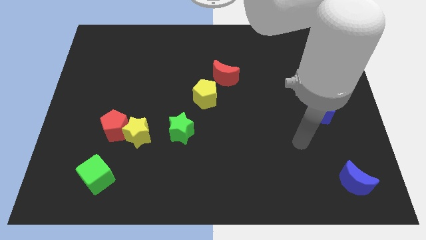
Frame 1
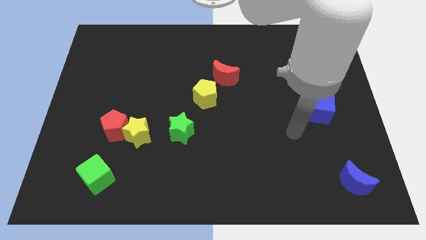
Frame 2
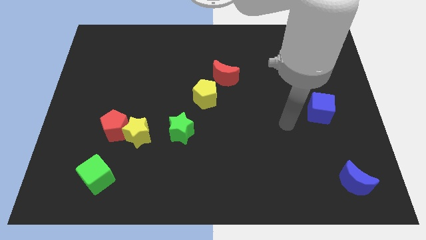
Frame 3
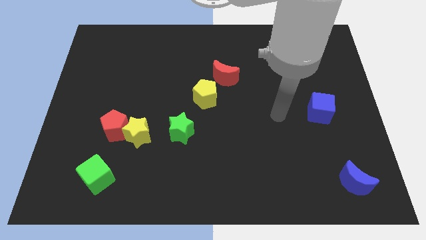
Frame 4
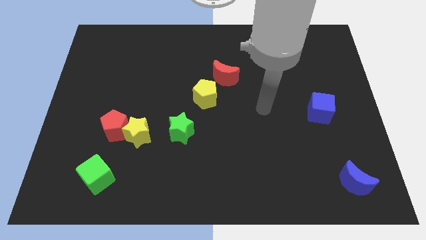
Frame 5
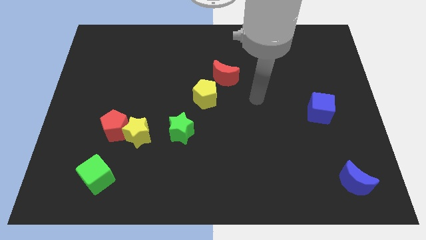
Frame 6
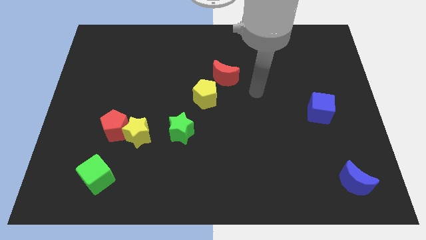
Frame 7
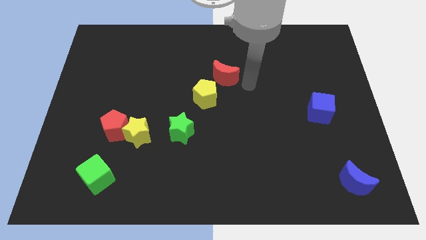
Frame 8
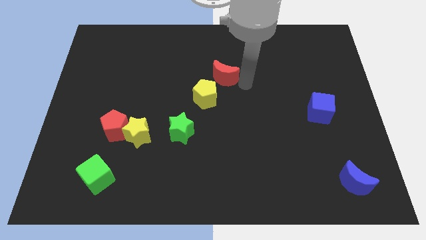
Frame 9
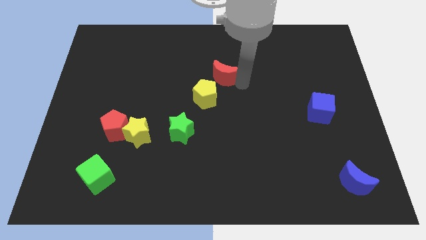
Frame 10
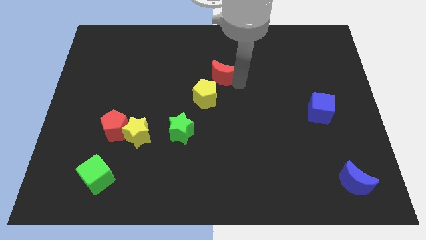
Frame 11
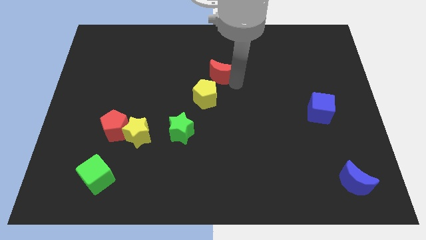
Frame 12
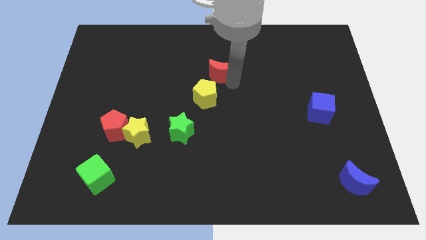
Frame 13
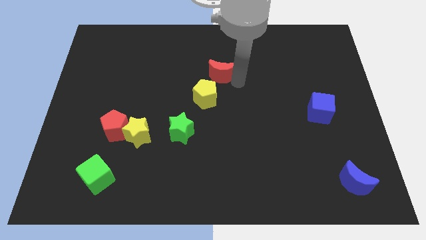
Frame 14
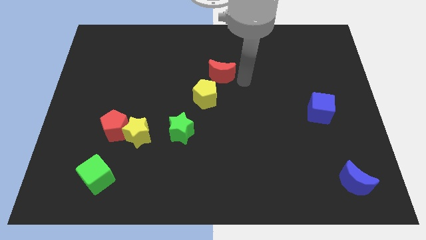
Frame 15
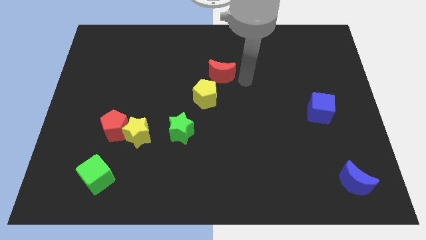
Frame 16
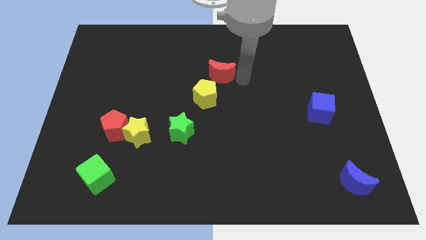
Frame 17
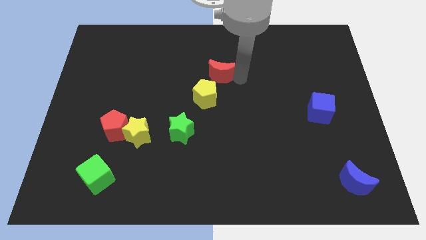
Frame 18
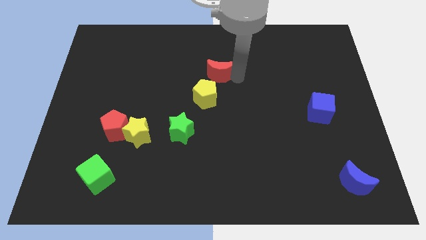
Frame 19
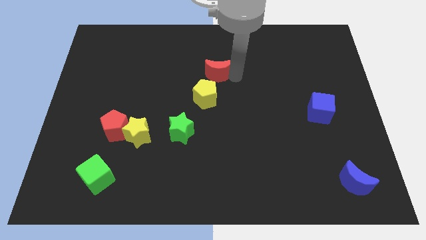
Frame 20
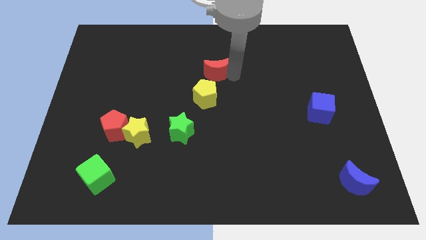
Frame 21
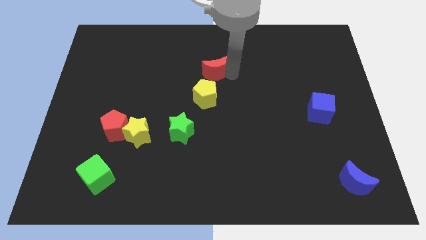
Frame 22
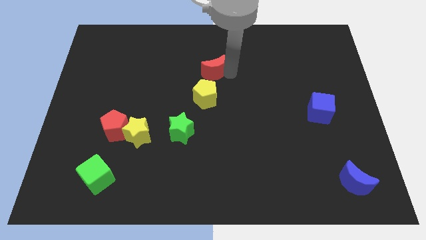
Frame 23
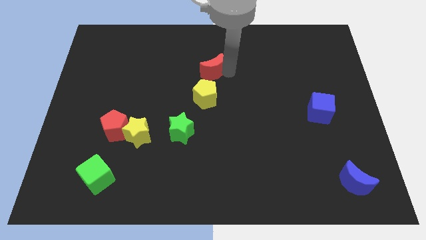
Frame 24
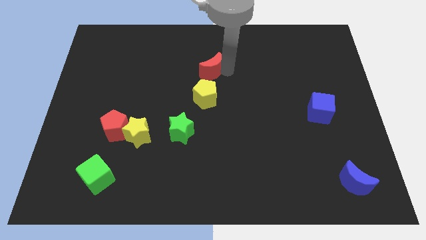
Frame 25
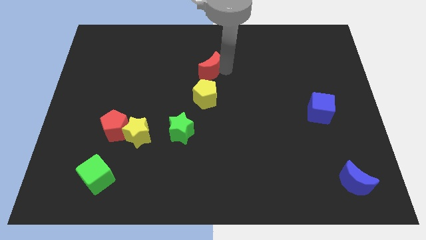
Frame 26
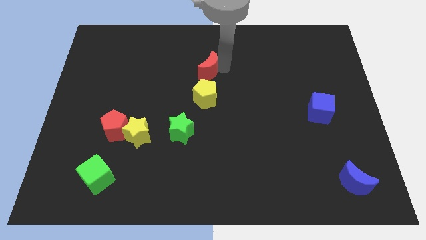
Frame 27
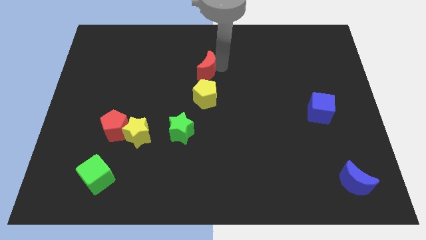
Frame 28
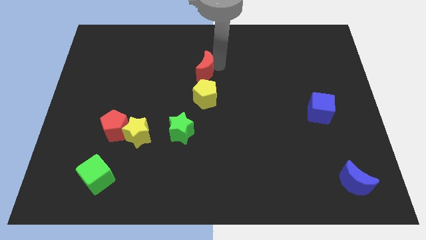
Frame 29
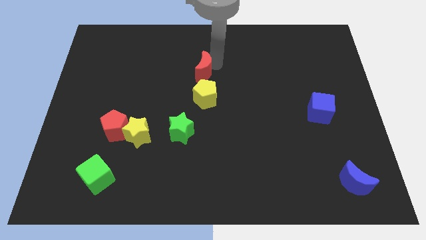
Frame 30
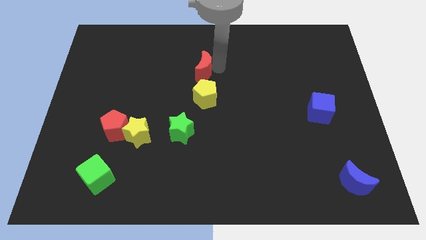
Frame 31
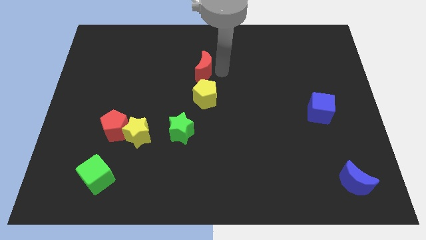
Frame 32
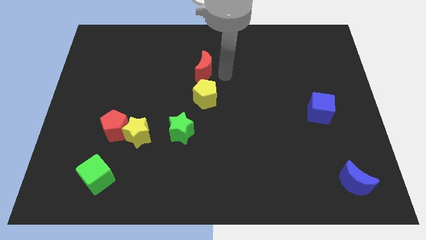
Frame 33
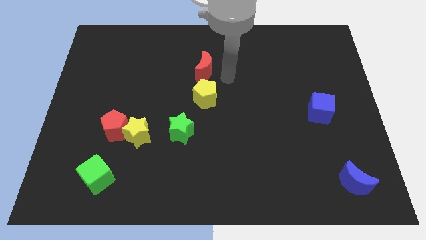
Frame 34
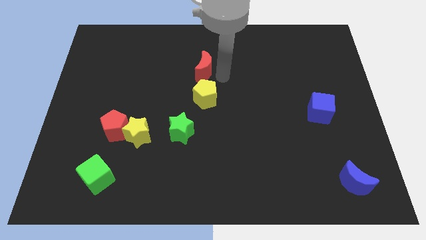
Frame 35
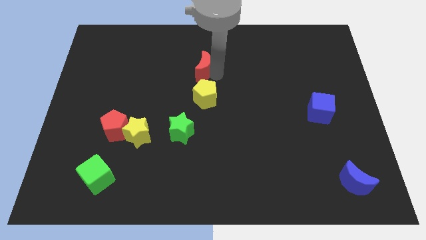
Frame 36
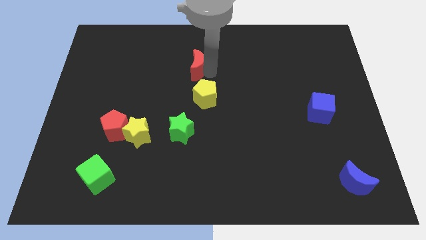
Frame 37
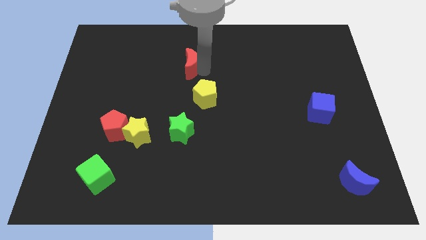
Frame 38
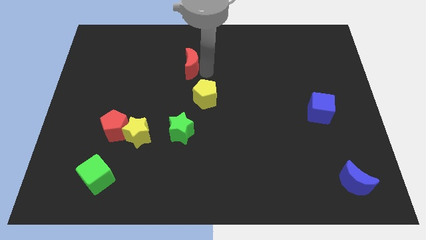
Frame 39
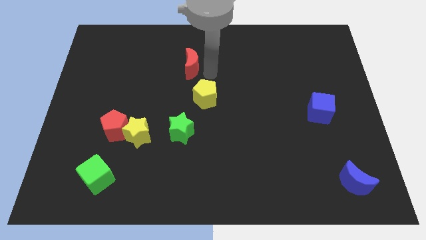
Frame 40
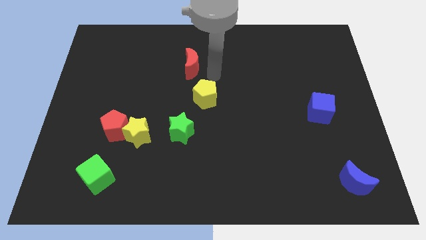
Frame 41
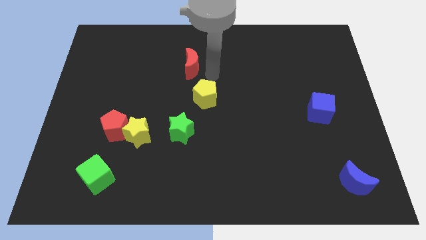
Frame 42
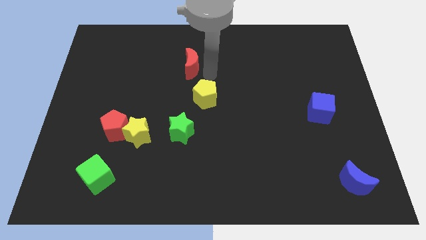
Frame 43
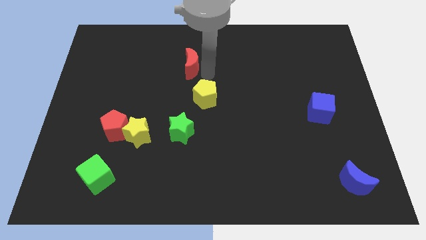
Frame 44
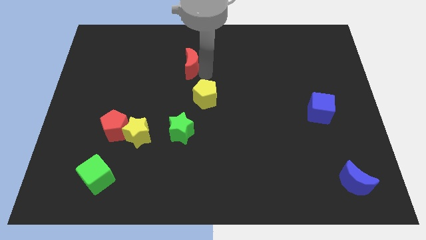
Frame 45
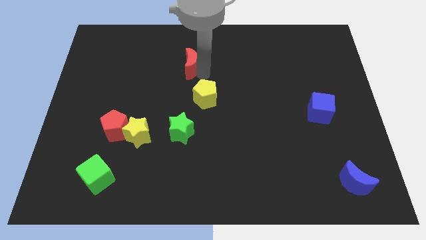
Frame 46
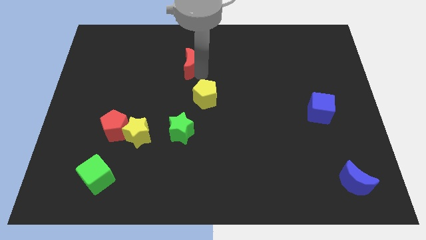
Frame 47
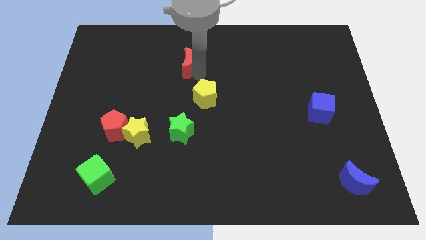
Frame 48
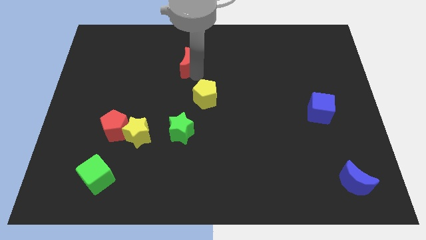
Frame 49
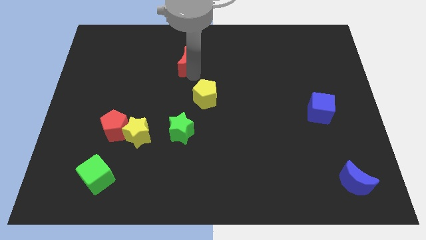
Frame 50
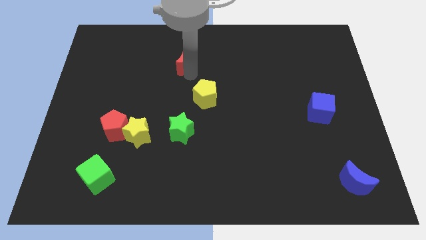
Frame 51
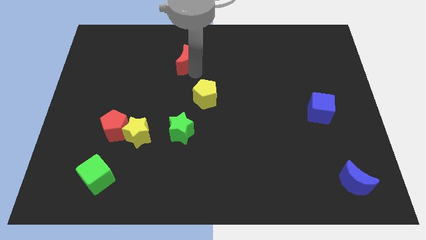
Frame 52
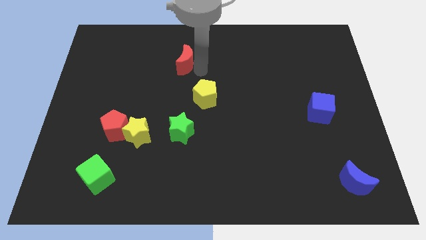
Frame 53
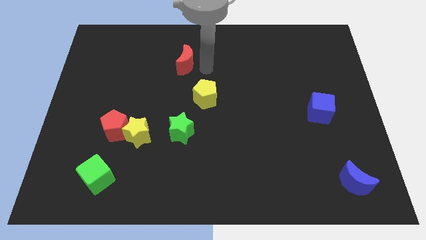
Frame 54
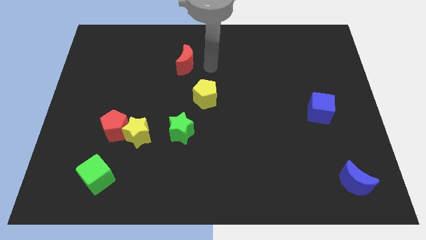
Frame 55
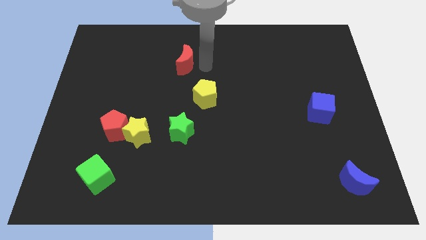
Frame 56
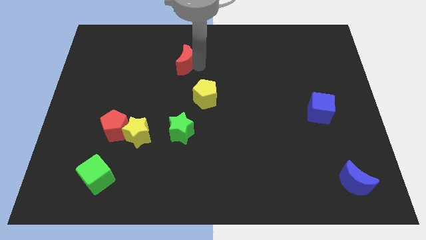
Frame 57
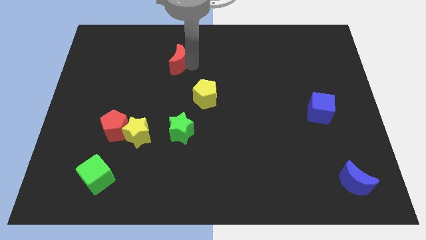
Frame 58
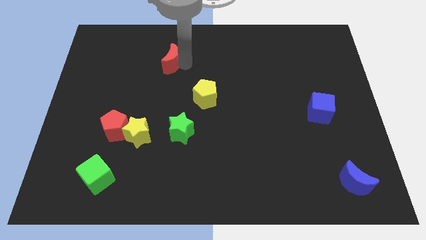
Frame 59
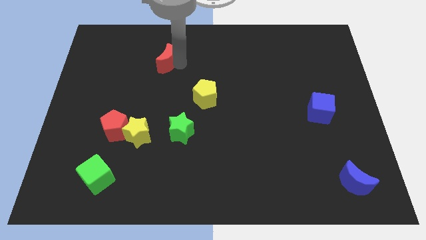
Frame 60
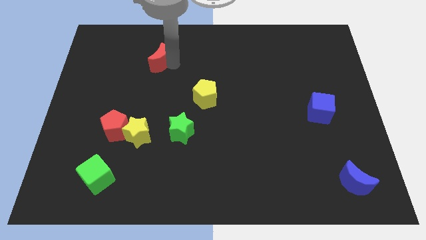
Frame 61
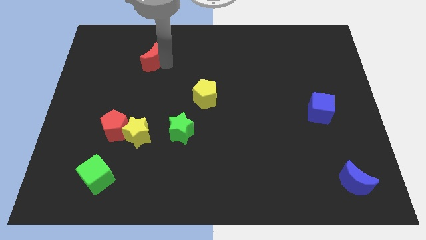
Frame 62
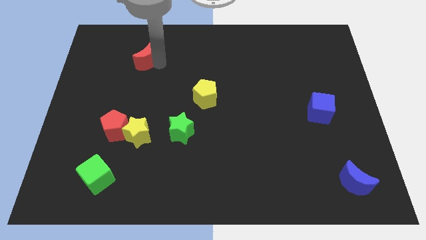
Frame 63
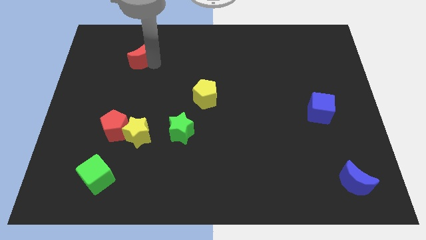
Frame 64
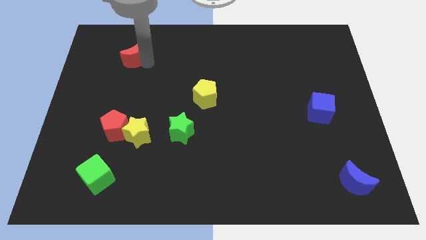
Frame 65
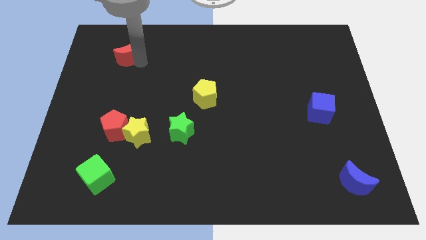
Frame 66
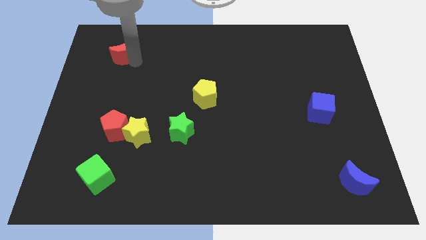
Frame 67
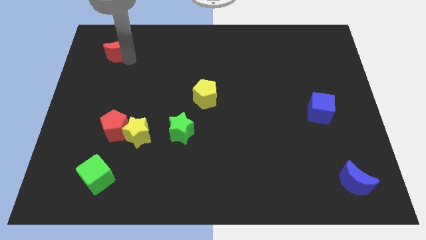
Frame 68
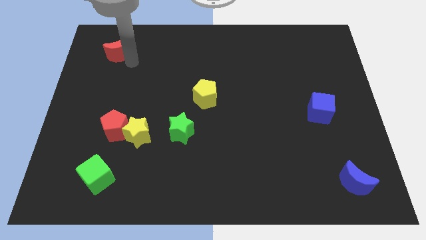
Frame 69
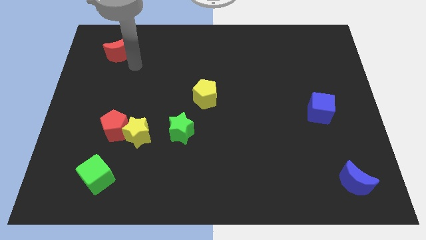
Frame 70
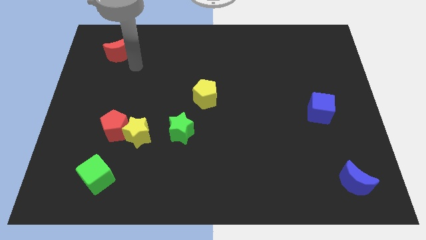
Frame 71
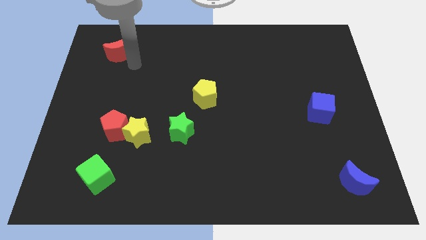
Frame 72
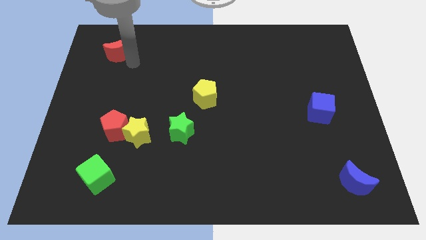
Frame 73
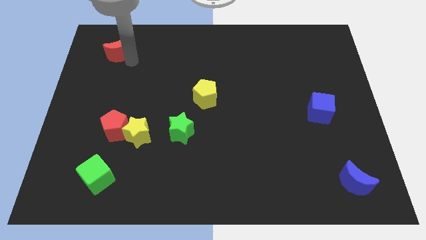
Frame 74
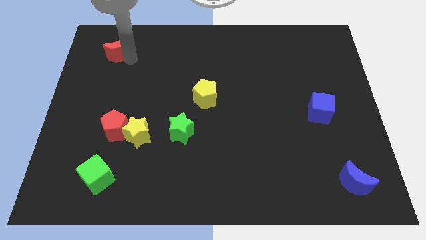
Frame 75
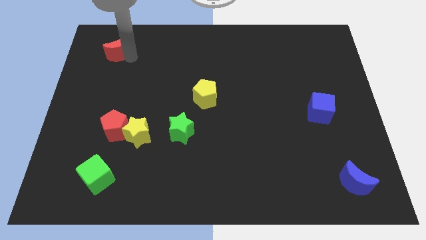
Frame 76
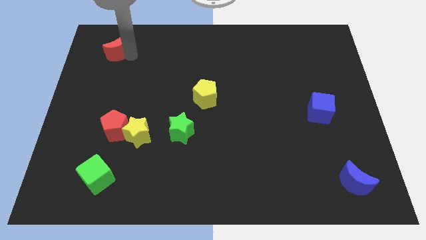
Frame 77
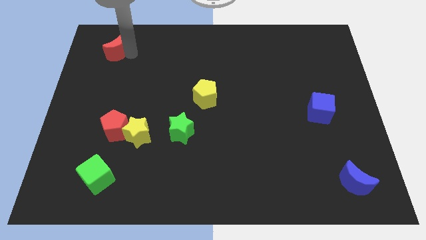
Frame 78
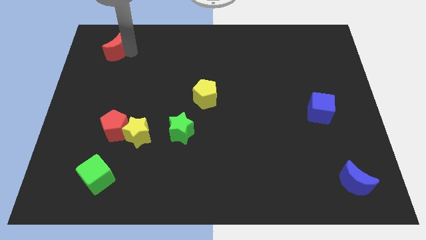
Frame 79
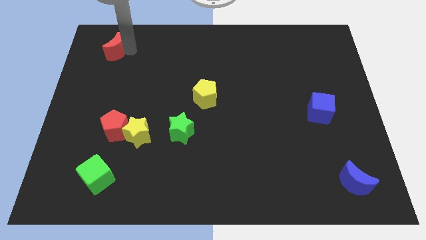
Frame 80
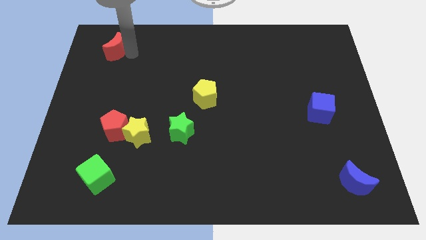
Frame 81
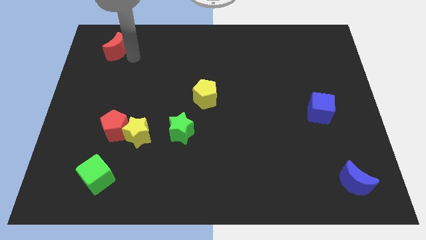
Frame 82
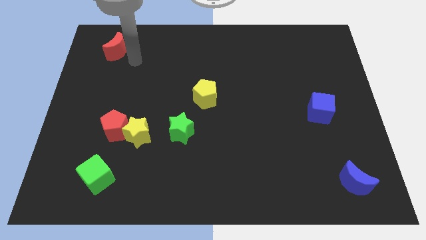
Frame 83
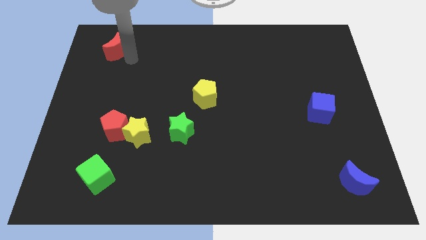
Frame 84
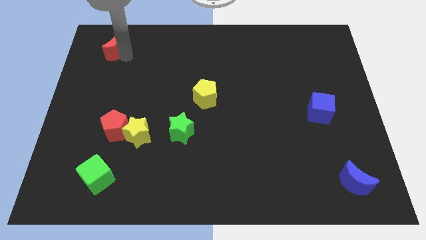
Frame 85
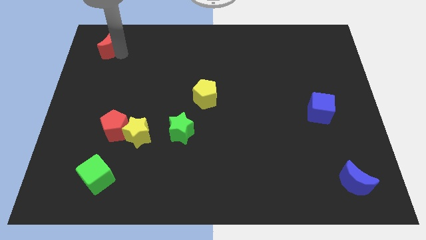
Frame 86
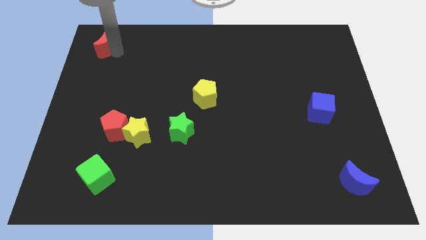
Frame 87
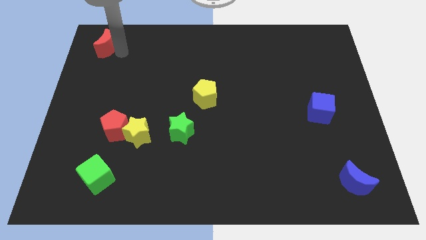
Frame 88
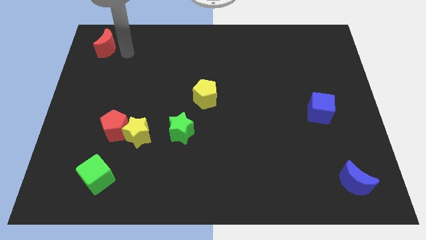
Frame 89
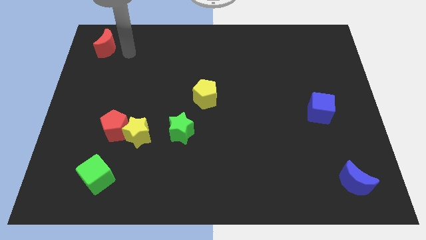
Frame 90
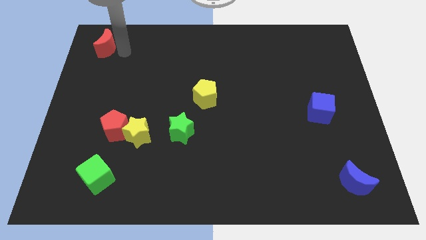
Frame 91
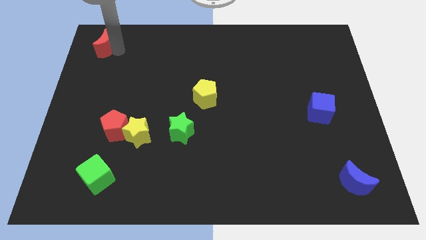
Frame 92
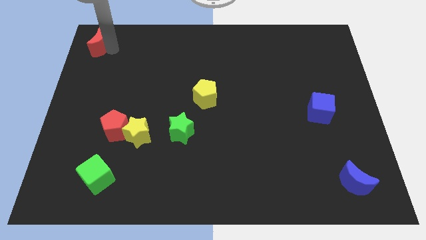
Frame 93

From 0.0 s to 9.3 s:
put the red moon to the top left
